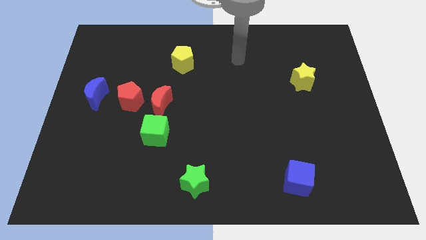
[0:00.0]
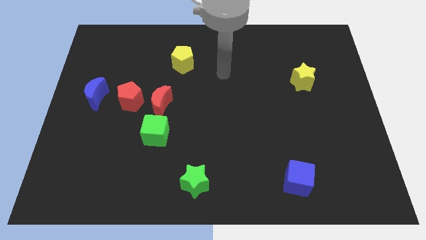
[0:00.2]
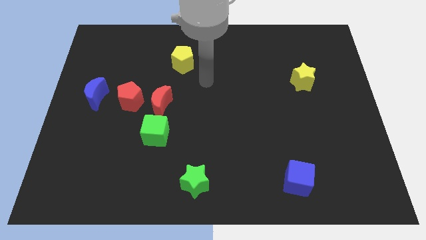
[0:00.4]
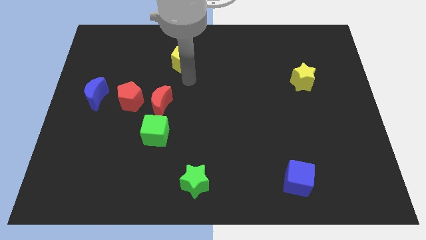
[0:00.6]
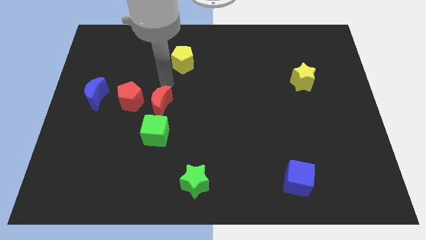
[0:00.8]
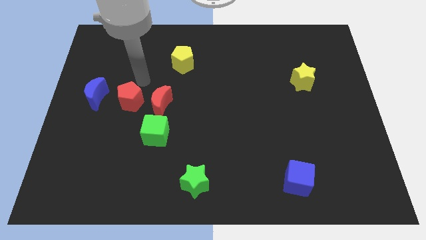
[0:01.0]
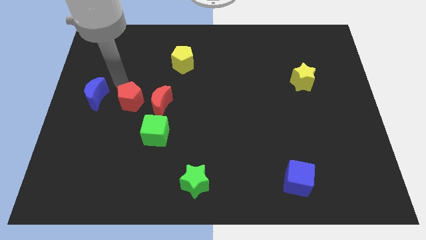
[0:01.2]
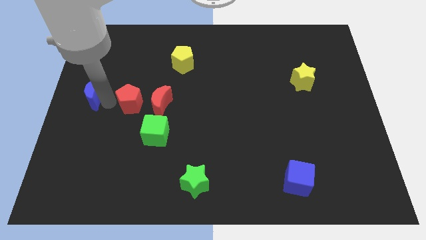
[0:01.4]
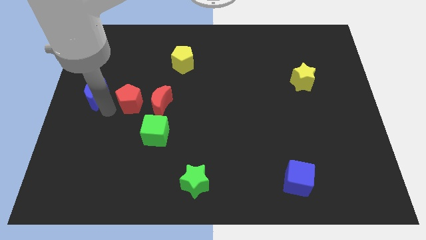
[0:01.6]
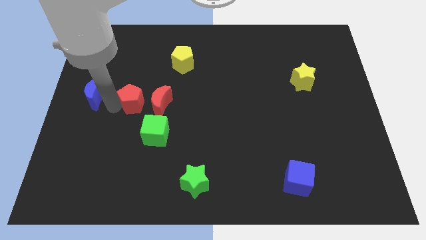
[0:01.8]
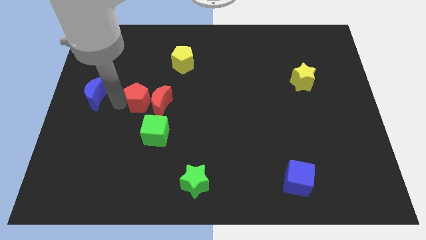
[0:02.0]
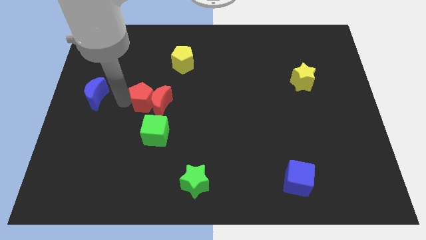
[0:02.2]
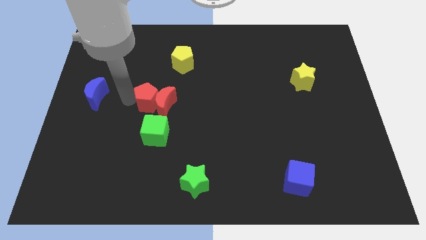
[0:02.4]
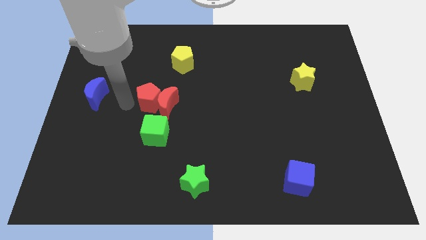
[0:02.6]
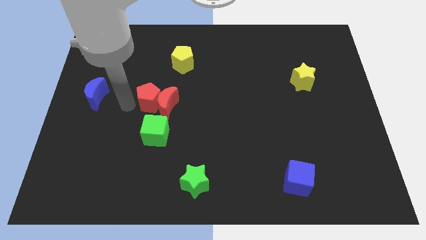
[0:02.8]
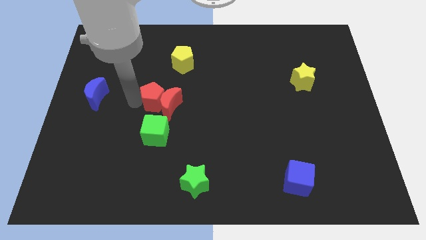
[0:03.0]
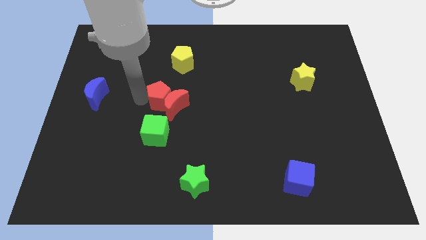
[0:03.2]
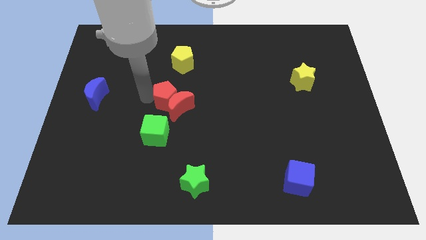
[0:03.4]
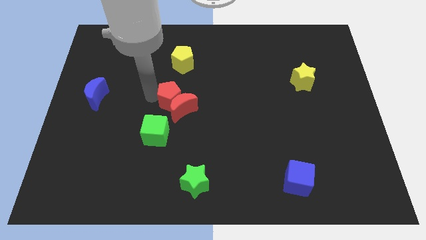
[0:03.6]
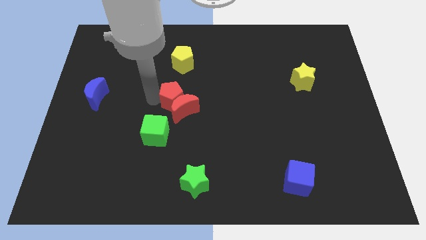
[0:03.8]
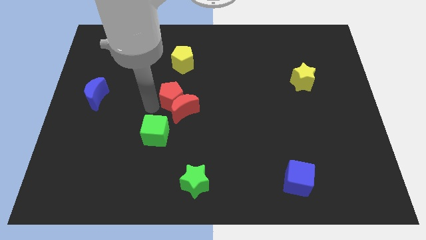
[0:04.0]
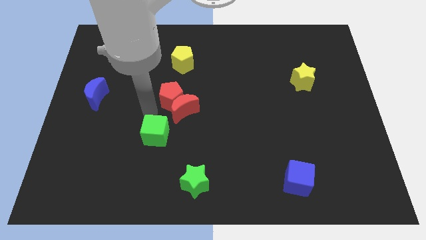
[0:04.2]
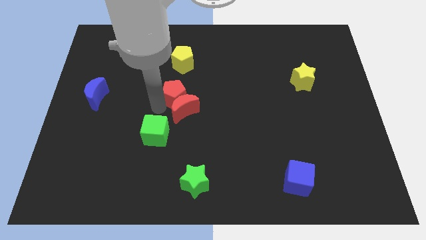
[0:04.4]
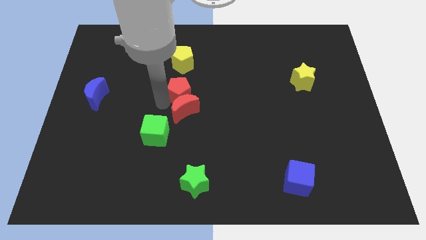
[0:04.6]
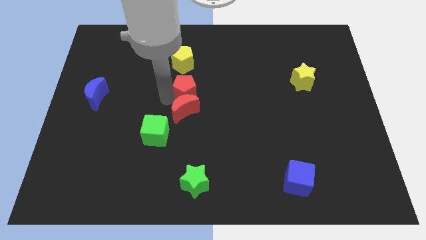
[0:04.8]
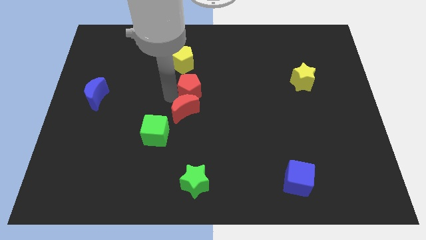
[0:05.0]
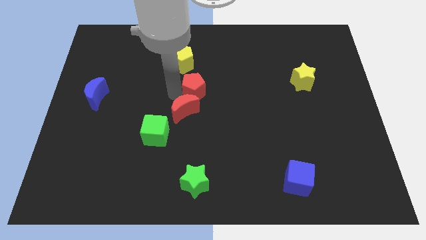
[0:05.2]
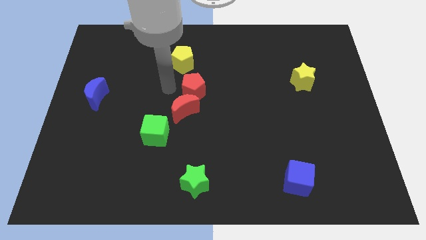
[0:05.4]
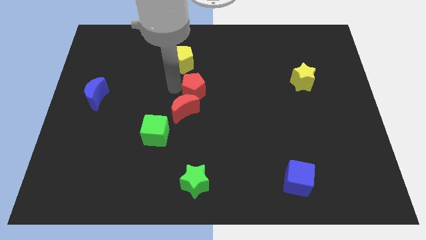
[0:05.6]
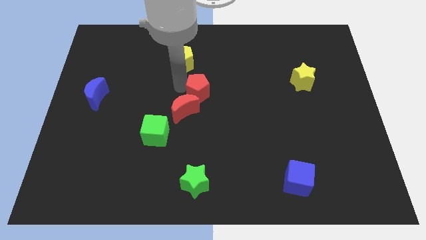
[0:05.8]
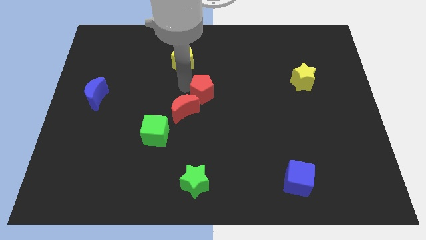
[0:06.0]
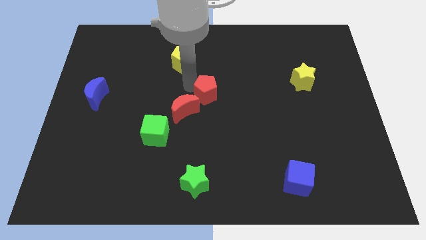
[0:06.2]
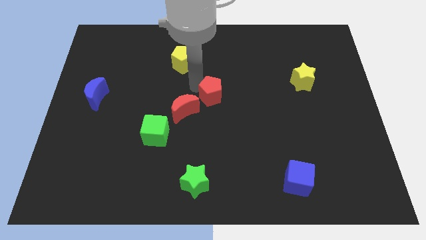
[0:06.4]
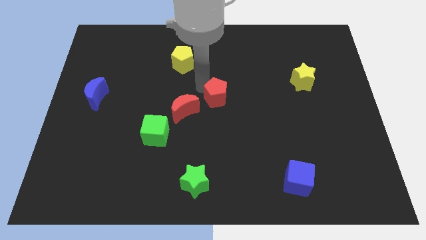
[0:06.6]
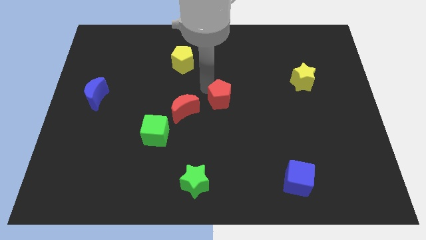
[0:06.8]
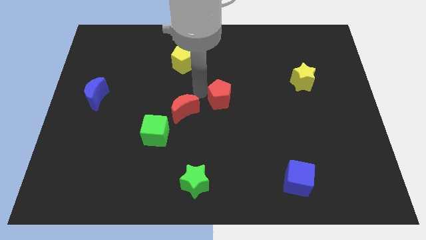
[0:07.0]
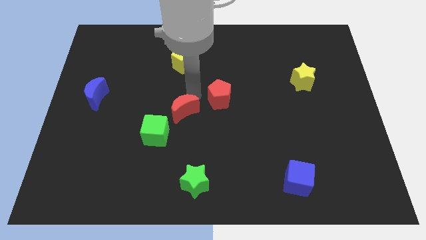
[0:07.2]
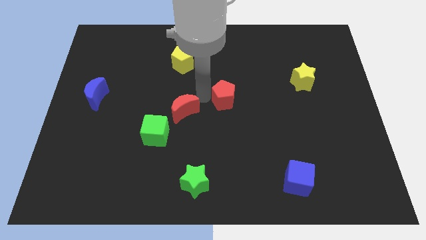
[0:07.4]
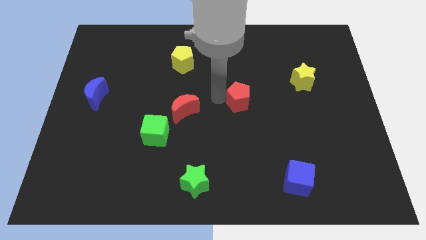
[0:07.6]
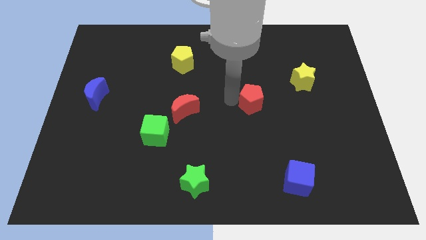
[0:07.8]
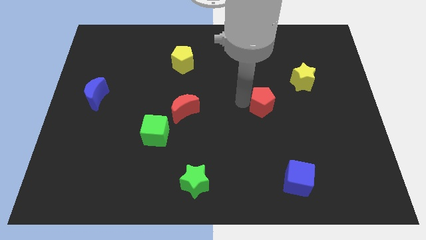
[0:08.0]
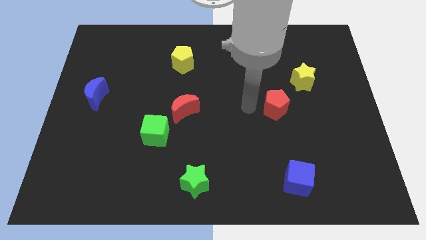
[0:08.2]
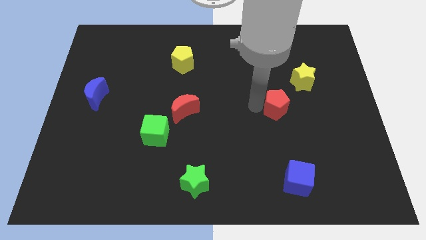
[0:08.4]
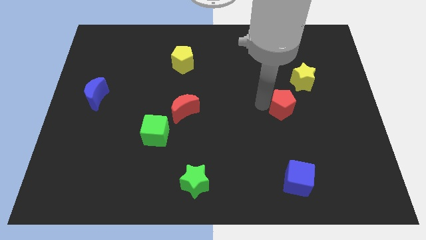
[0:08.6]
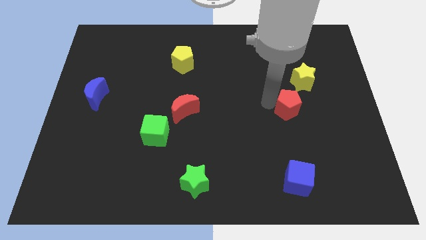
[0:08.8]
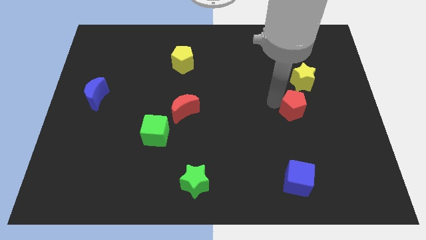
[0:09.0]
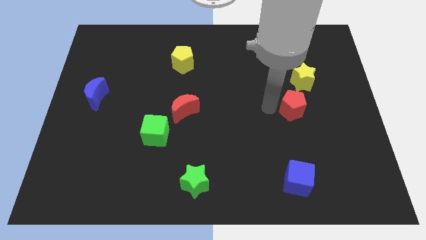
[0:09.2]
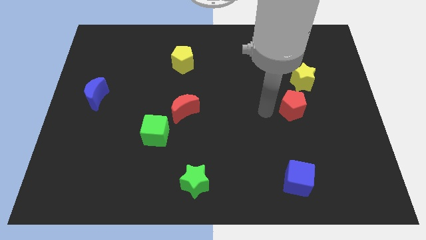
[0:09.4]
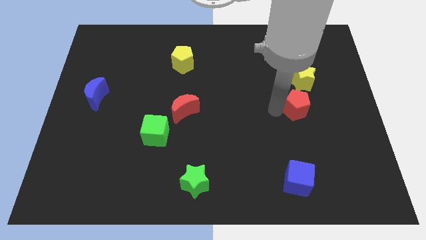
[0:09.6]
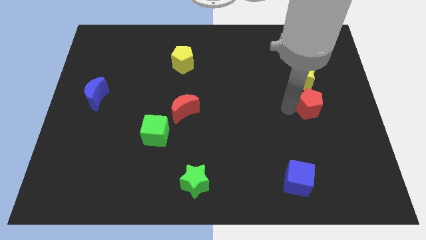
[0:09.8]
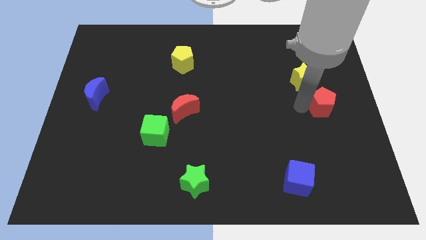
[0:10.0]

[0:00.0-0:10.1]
push the red pentagon to the center right

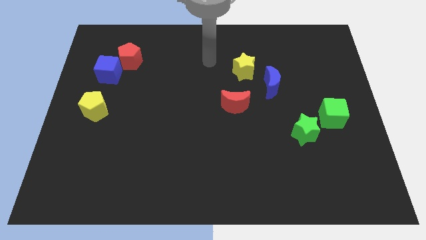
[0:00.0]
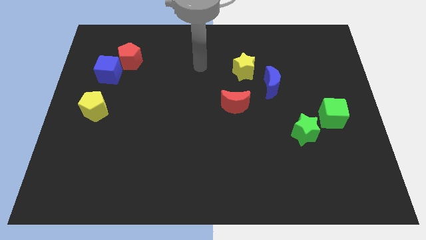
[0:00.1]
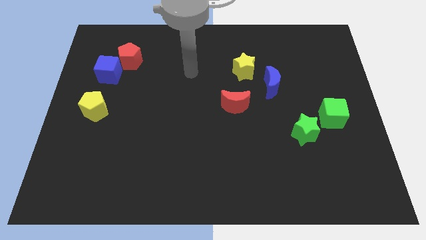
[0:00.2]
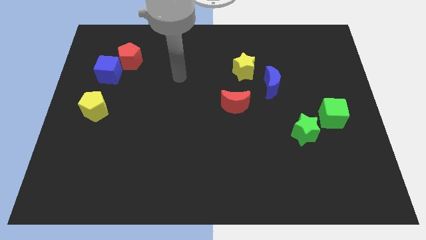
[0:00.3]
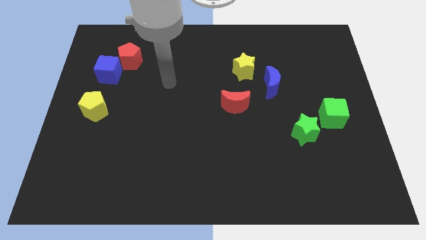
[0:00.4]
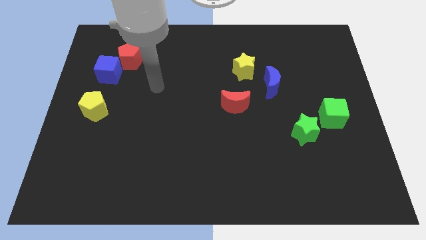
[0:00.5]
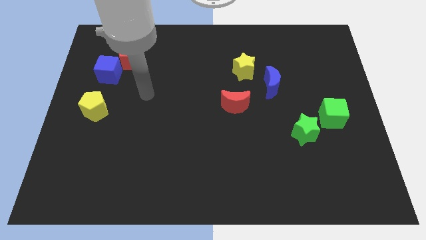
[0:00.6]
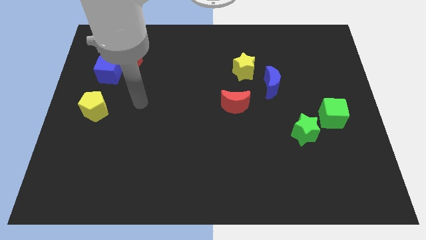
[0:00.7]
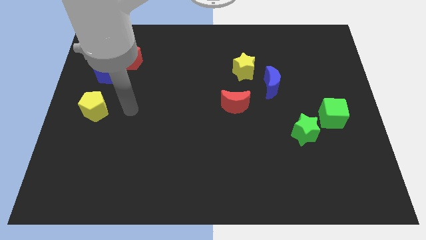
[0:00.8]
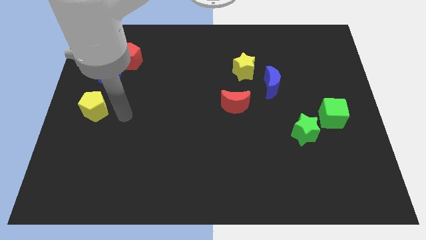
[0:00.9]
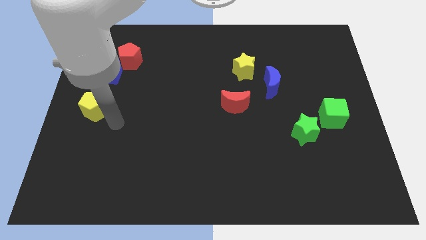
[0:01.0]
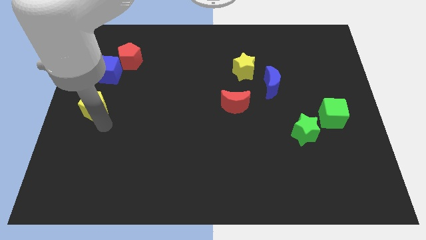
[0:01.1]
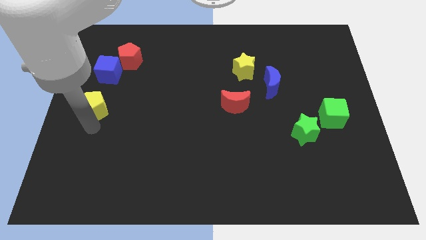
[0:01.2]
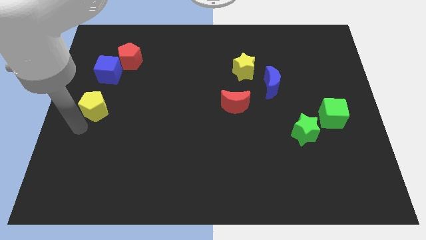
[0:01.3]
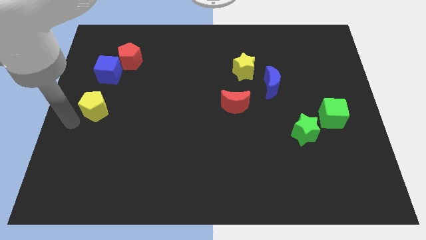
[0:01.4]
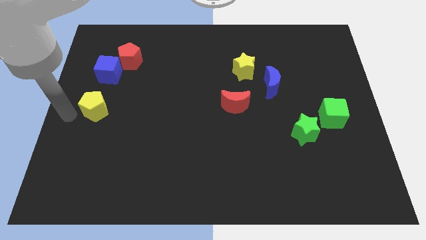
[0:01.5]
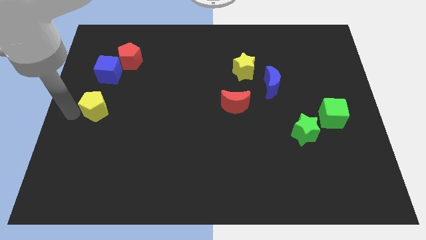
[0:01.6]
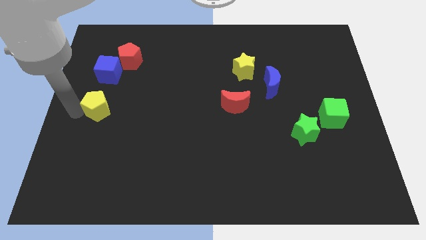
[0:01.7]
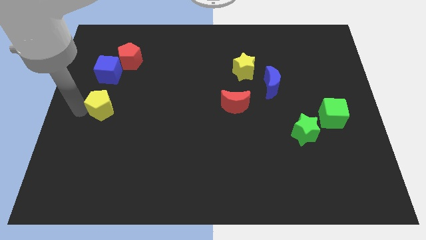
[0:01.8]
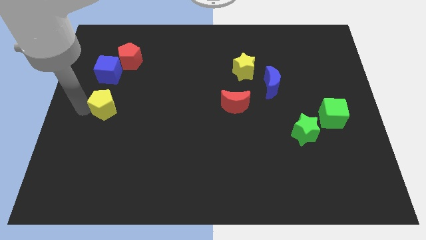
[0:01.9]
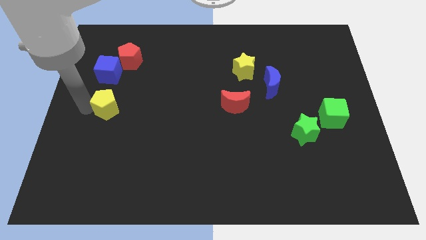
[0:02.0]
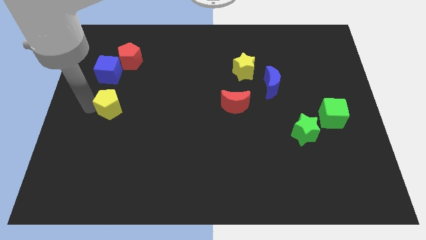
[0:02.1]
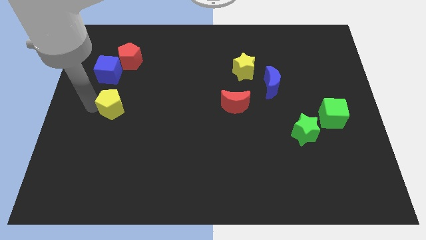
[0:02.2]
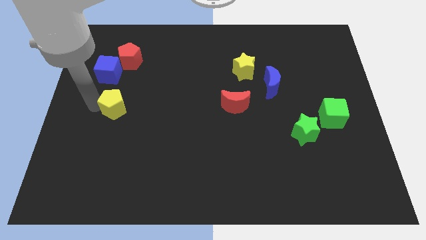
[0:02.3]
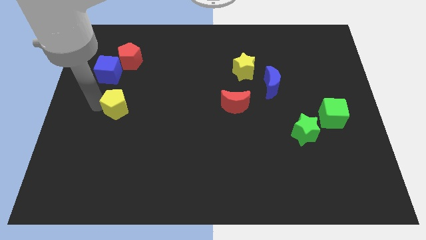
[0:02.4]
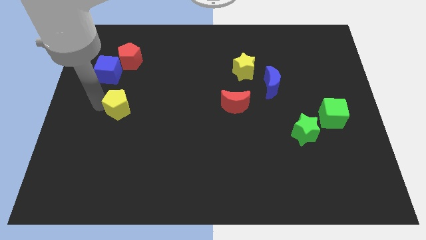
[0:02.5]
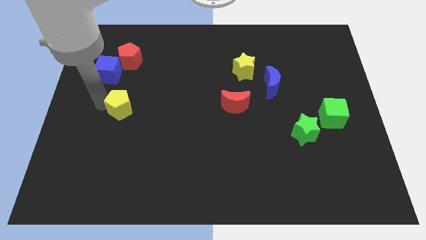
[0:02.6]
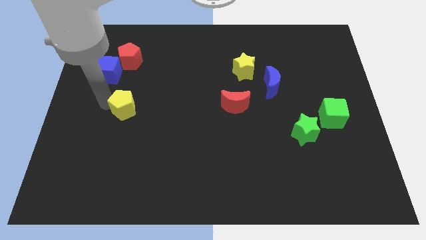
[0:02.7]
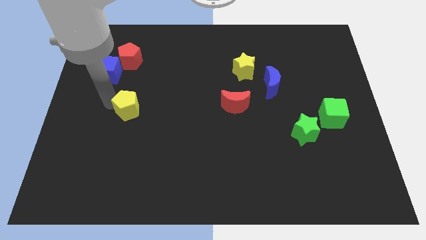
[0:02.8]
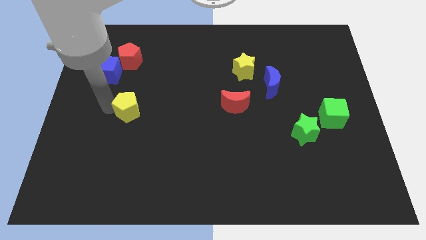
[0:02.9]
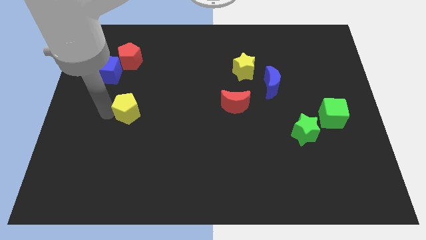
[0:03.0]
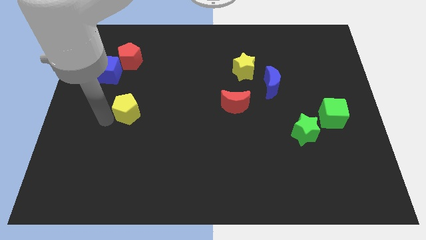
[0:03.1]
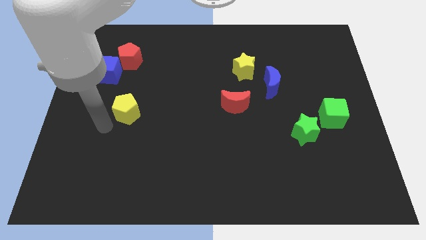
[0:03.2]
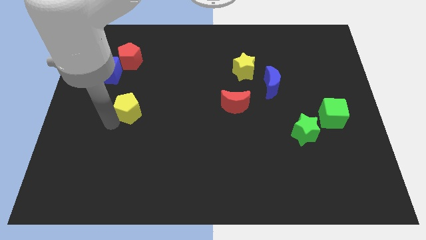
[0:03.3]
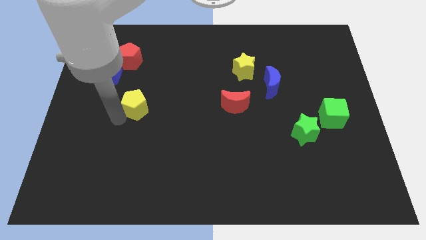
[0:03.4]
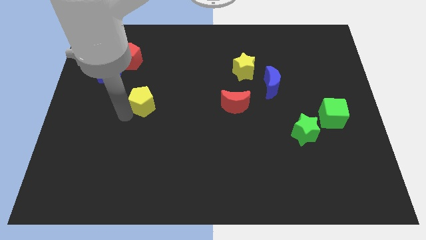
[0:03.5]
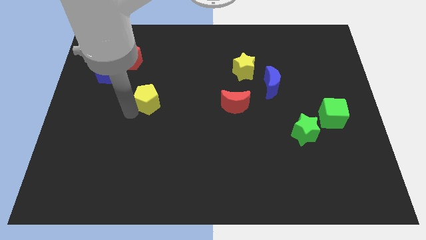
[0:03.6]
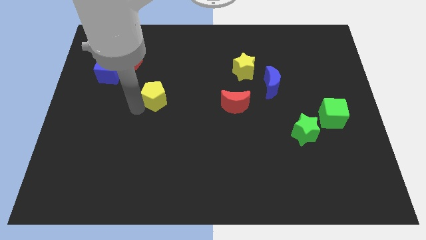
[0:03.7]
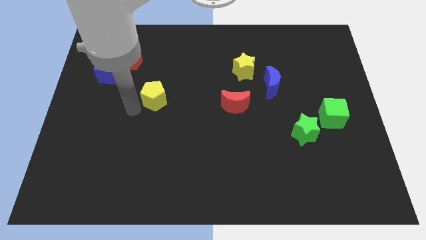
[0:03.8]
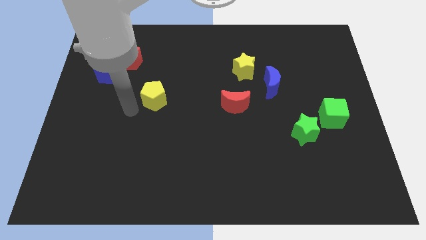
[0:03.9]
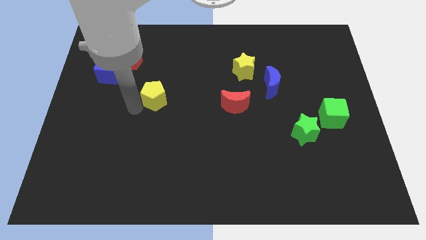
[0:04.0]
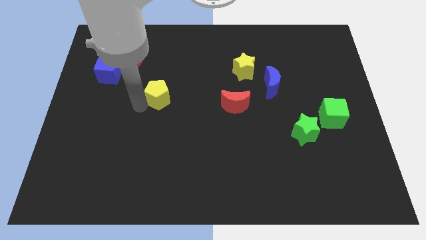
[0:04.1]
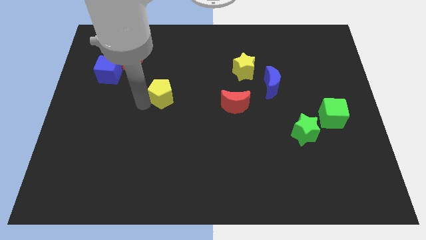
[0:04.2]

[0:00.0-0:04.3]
slide the yellow pentagon to the center of the board
